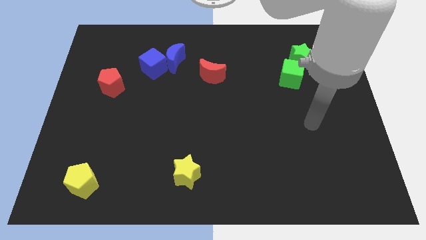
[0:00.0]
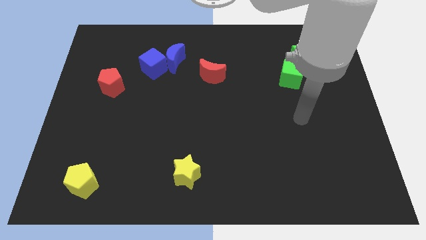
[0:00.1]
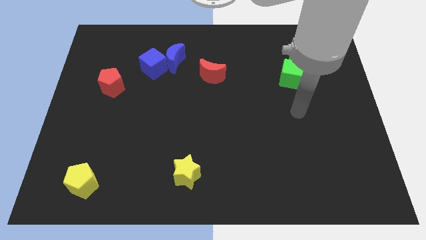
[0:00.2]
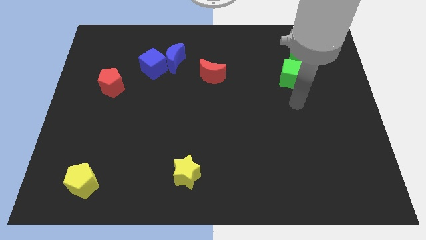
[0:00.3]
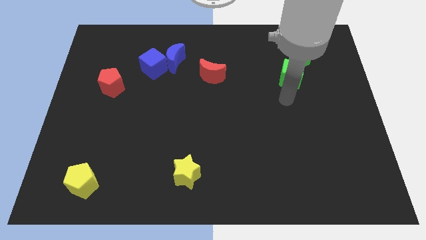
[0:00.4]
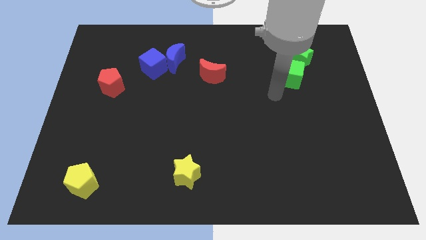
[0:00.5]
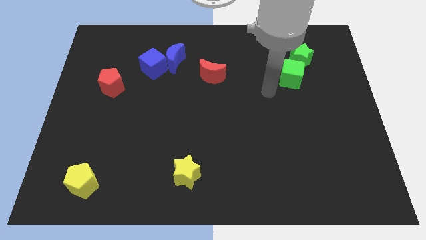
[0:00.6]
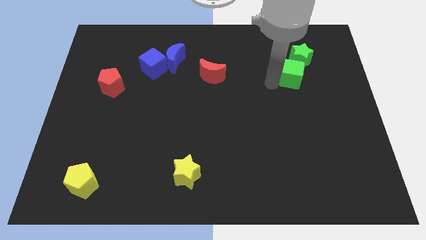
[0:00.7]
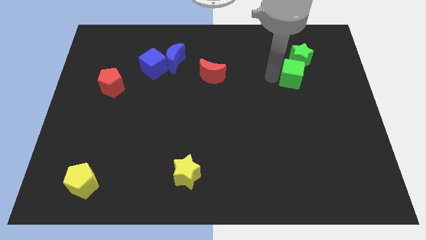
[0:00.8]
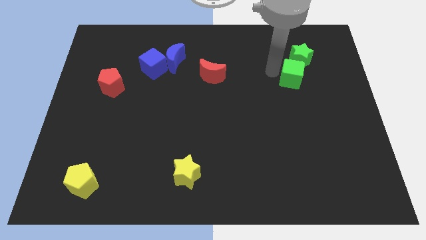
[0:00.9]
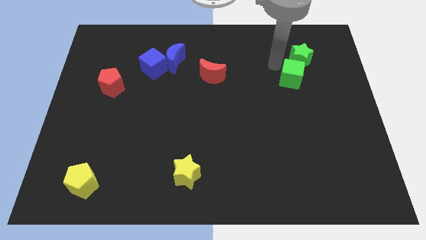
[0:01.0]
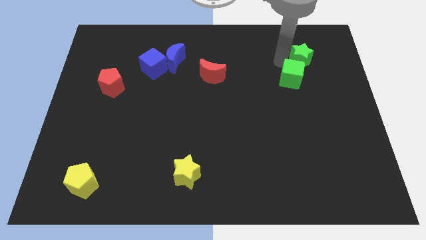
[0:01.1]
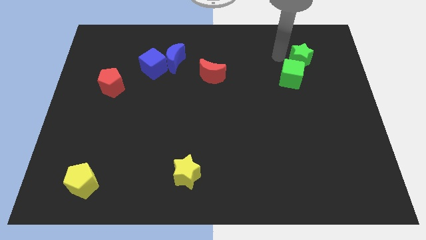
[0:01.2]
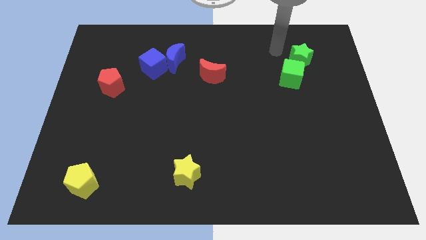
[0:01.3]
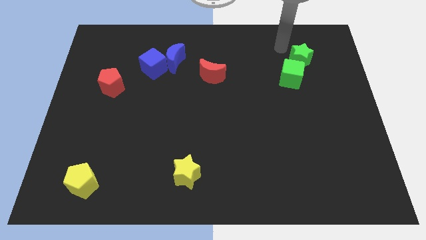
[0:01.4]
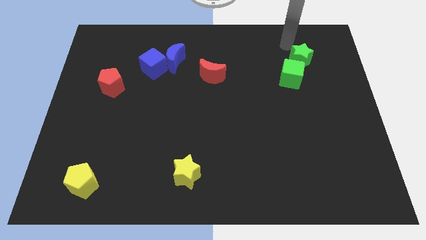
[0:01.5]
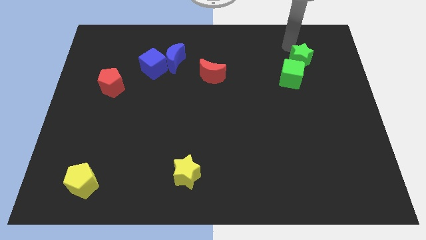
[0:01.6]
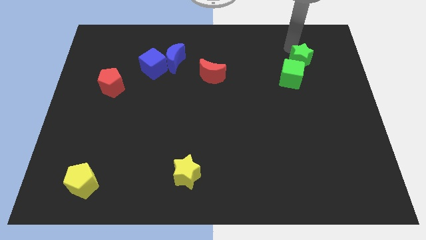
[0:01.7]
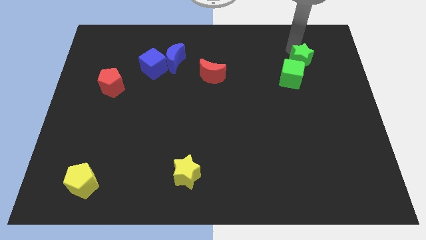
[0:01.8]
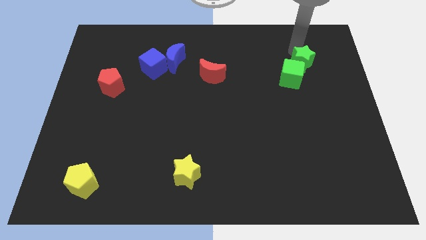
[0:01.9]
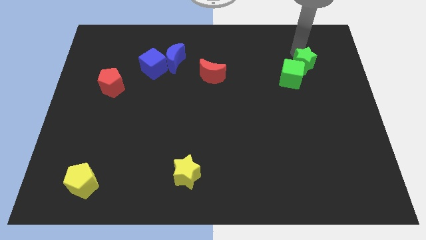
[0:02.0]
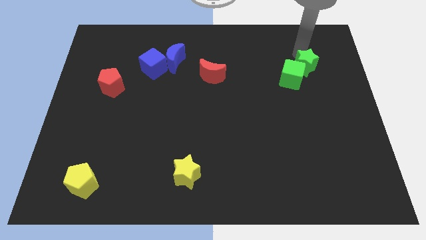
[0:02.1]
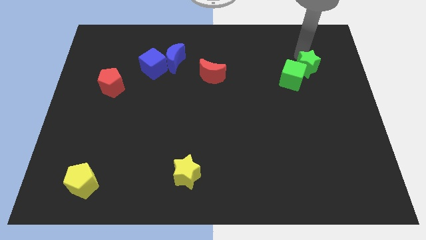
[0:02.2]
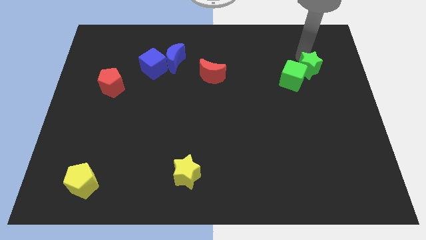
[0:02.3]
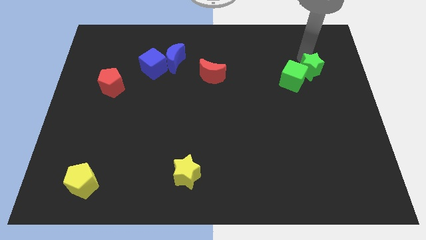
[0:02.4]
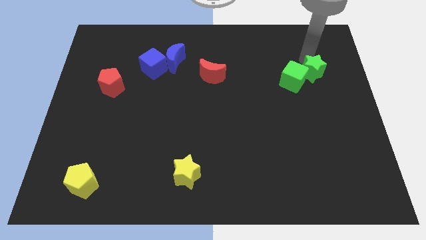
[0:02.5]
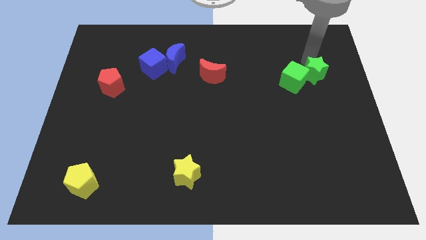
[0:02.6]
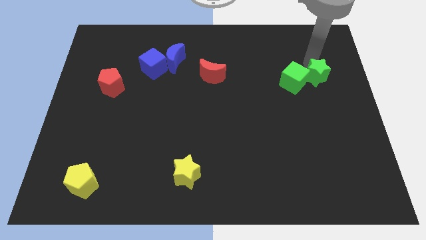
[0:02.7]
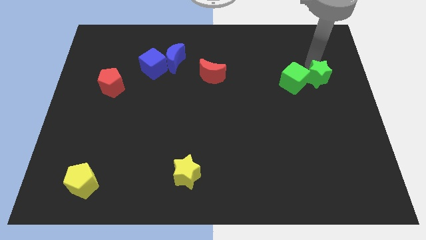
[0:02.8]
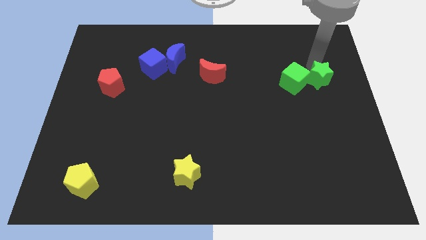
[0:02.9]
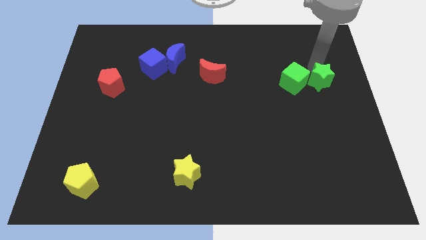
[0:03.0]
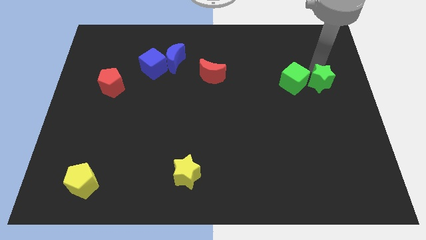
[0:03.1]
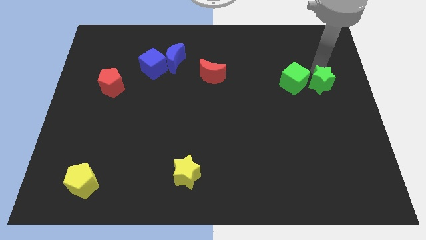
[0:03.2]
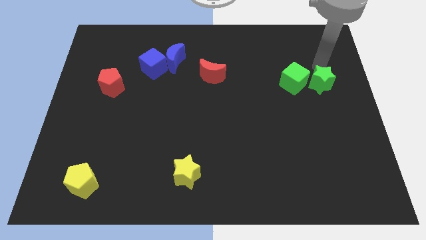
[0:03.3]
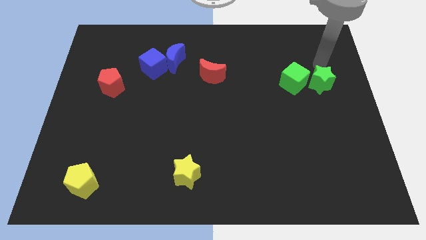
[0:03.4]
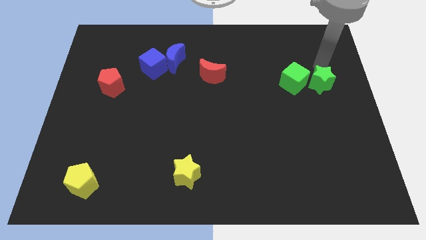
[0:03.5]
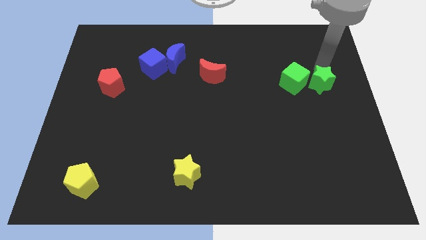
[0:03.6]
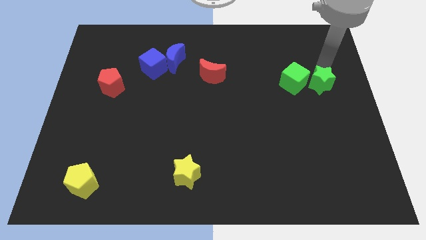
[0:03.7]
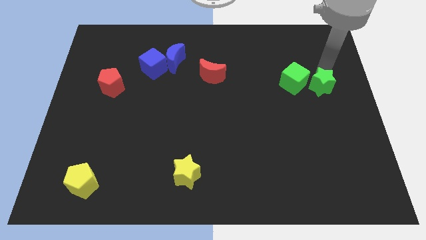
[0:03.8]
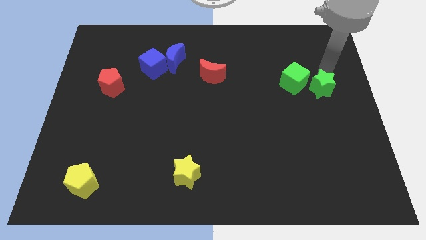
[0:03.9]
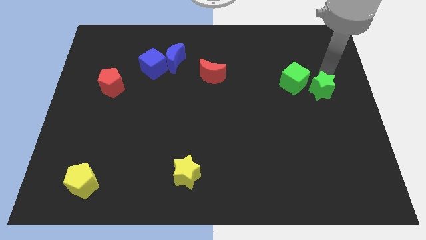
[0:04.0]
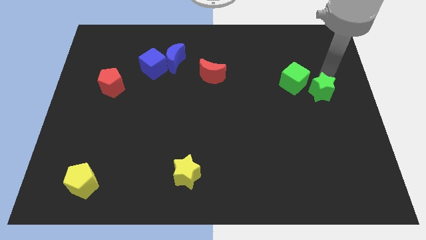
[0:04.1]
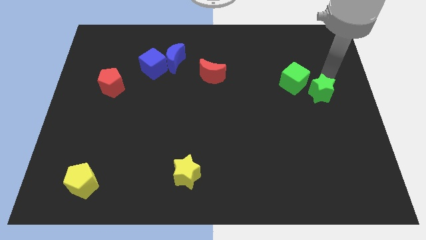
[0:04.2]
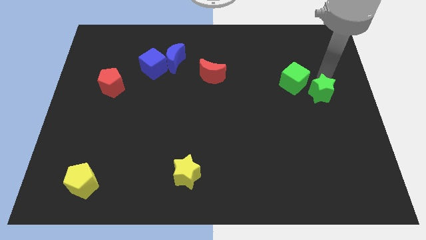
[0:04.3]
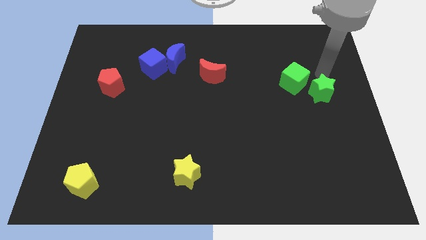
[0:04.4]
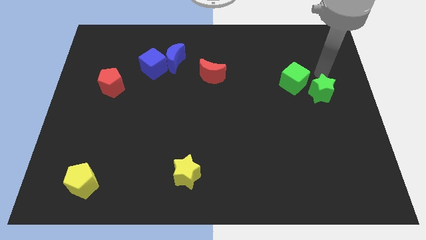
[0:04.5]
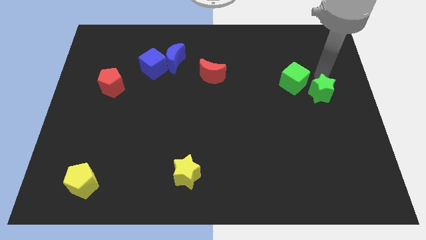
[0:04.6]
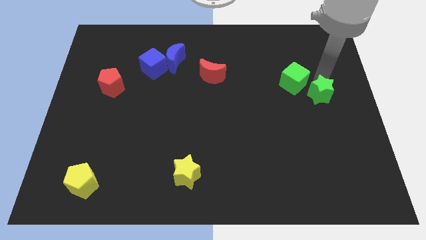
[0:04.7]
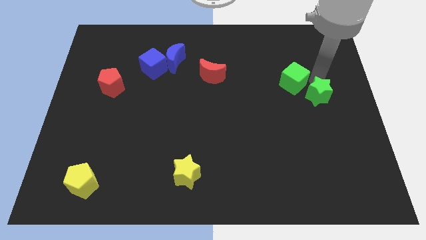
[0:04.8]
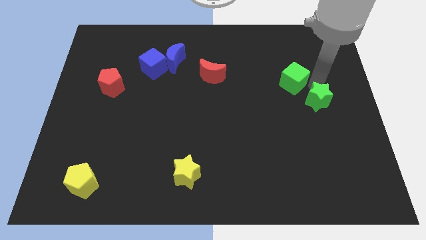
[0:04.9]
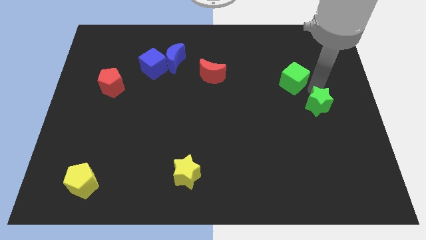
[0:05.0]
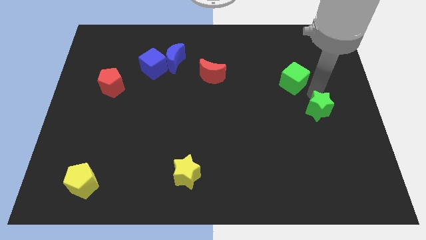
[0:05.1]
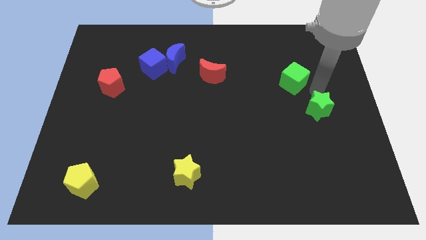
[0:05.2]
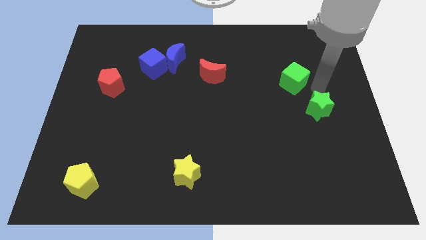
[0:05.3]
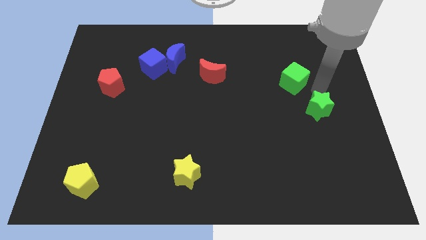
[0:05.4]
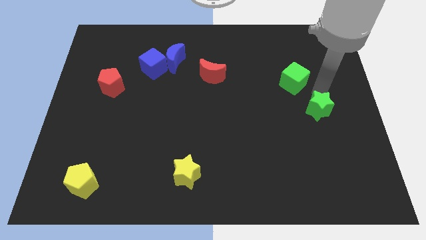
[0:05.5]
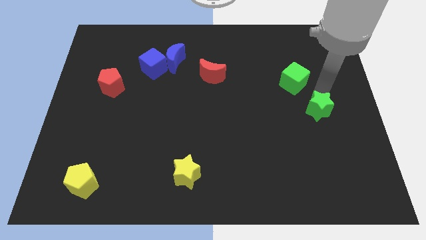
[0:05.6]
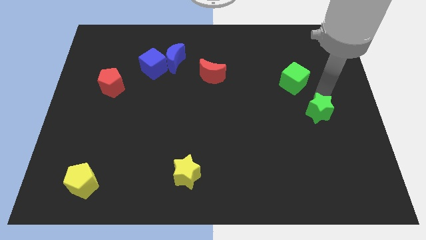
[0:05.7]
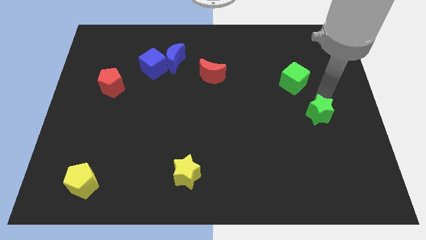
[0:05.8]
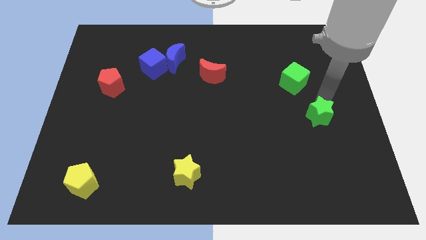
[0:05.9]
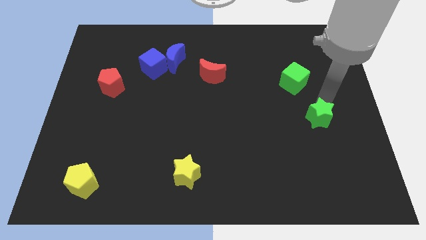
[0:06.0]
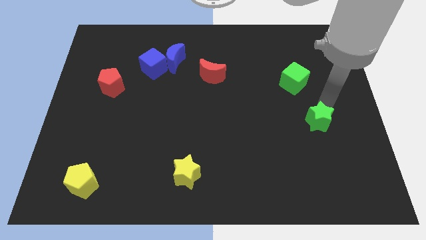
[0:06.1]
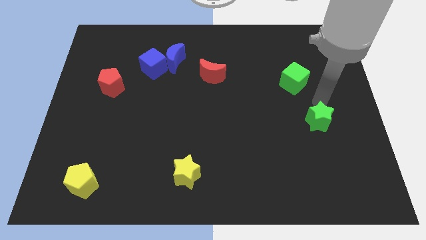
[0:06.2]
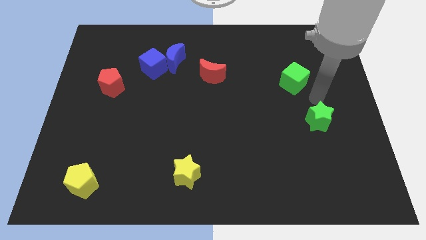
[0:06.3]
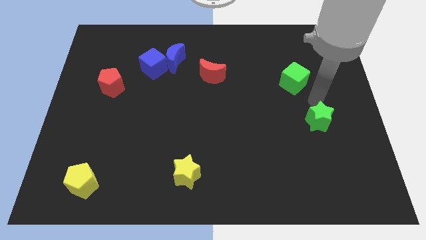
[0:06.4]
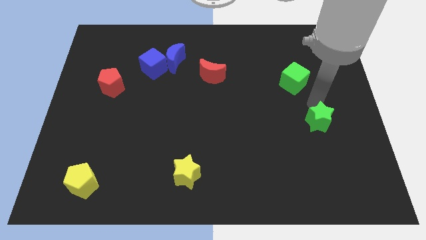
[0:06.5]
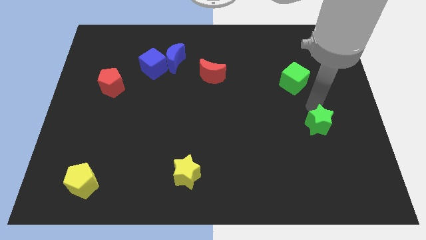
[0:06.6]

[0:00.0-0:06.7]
slide the green star down

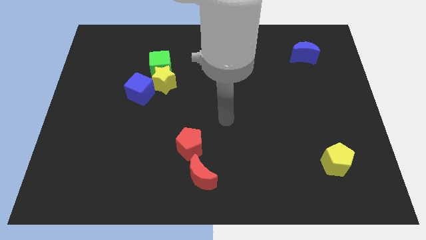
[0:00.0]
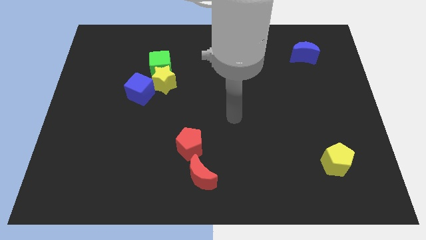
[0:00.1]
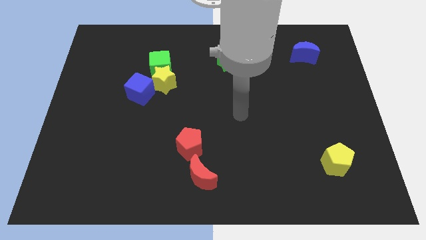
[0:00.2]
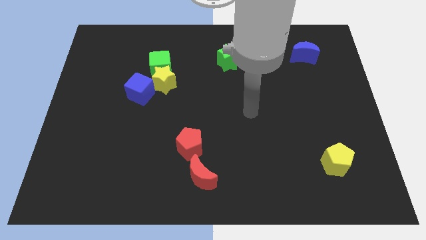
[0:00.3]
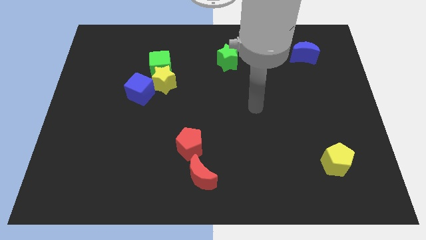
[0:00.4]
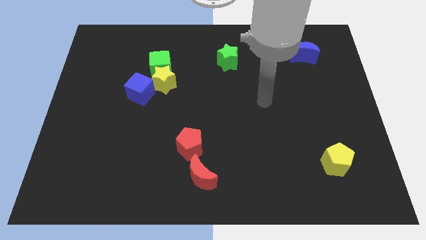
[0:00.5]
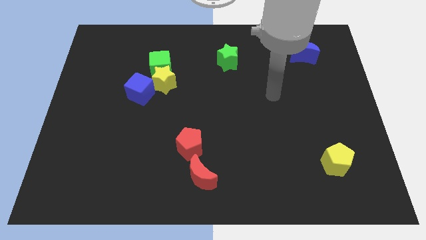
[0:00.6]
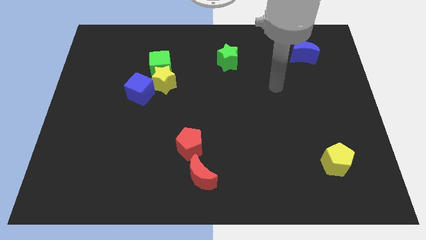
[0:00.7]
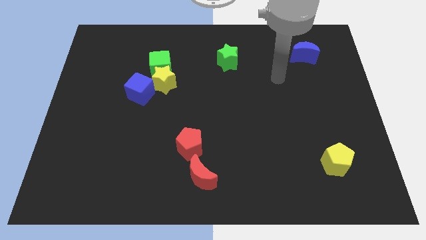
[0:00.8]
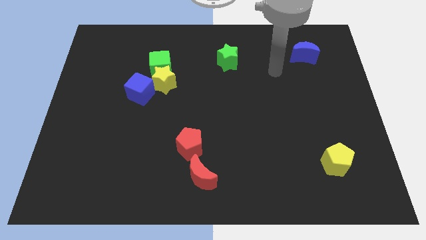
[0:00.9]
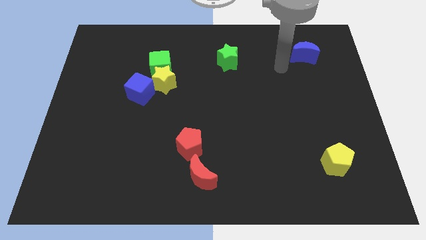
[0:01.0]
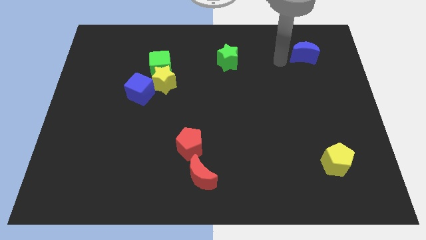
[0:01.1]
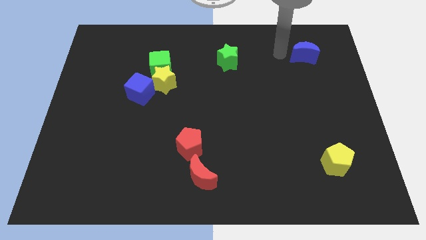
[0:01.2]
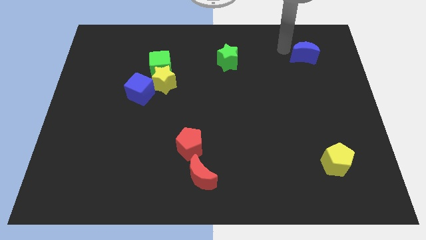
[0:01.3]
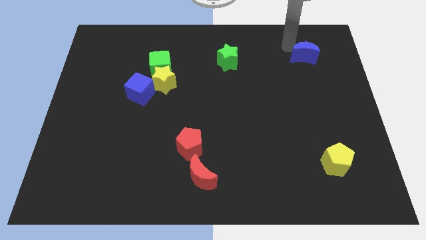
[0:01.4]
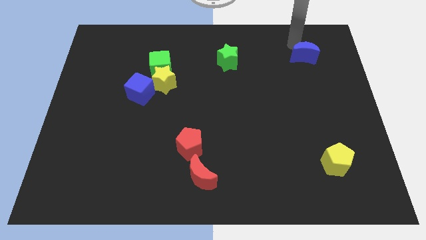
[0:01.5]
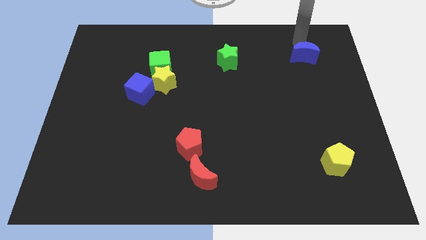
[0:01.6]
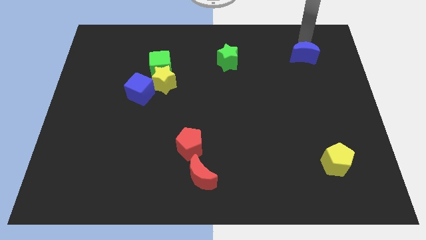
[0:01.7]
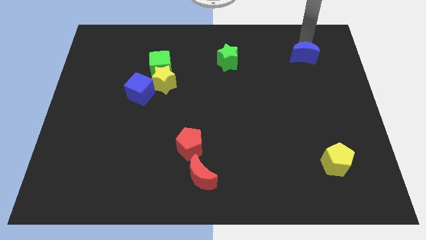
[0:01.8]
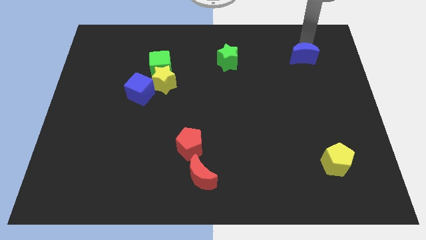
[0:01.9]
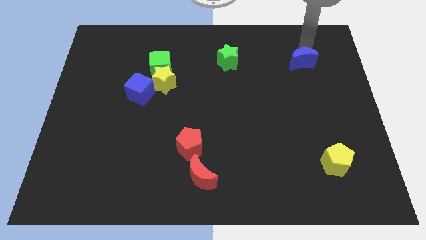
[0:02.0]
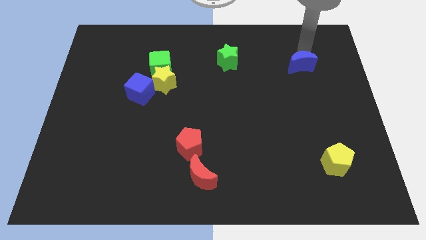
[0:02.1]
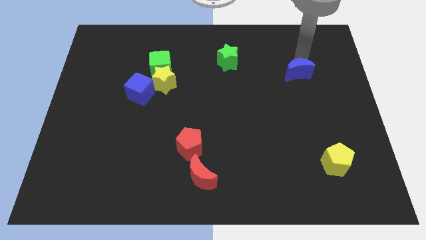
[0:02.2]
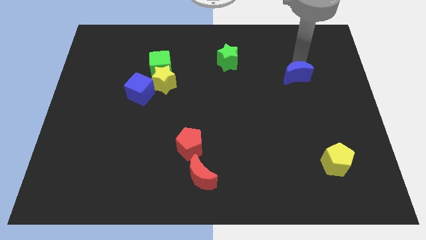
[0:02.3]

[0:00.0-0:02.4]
slide the blue moon slightly downwards
